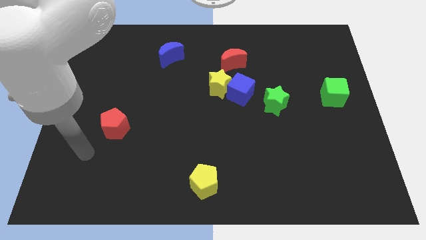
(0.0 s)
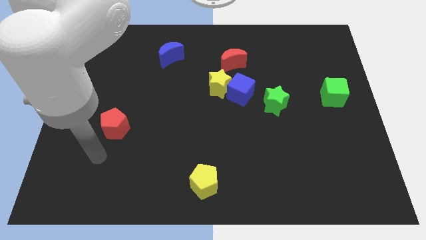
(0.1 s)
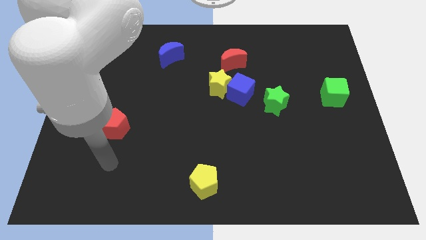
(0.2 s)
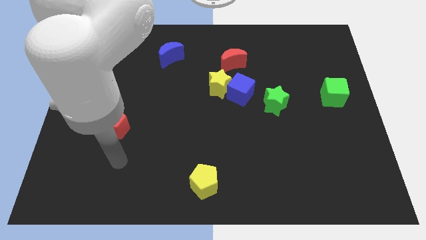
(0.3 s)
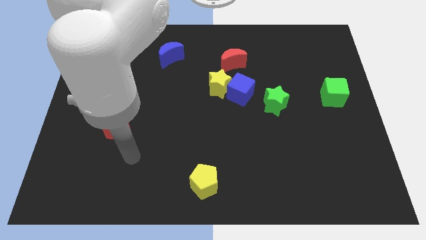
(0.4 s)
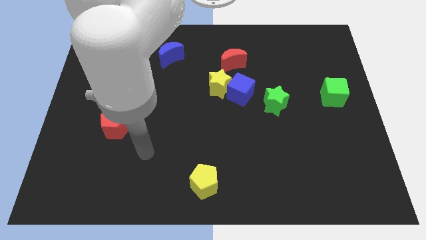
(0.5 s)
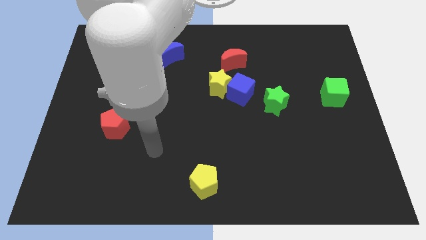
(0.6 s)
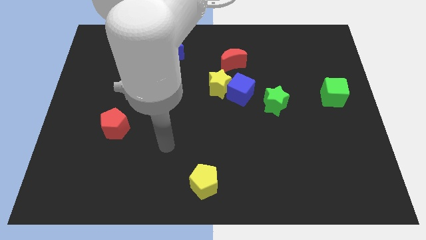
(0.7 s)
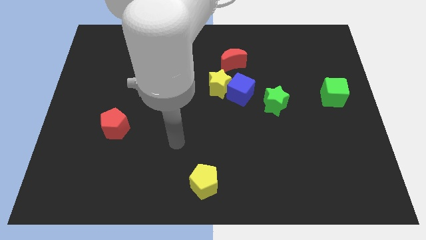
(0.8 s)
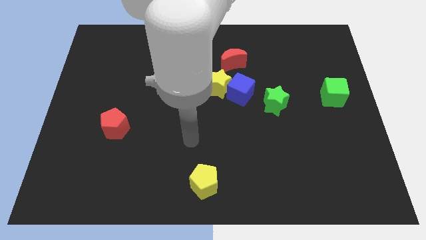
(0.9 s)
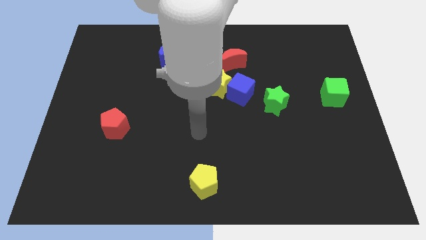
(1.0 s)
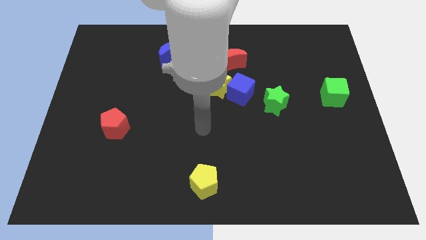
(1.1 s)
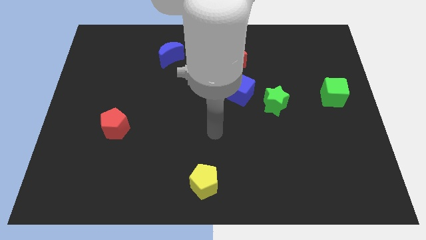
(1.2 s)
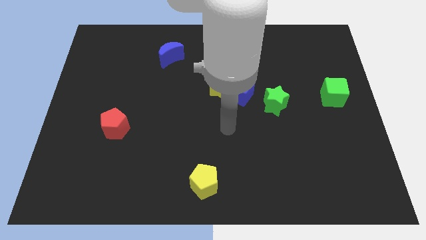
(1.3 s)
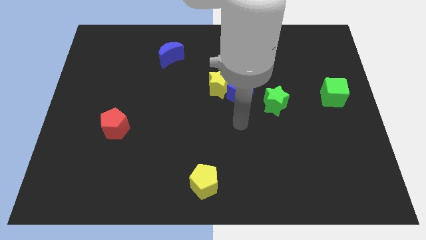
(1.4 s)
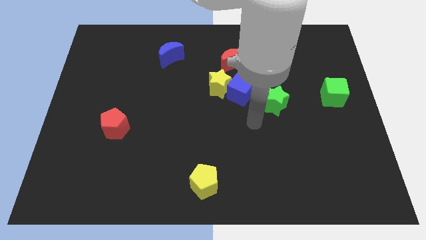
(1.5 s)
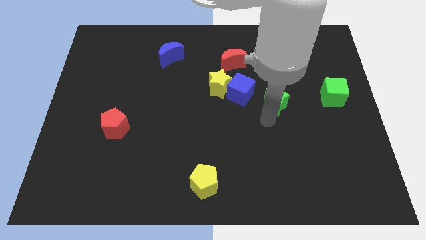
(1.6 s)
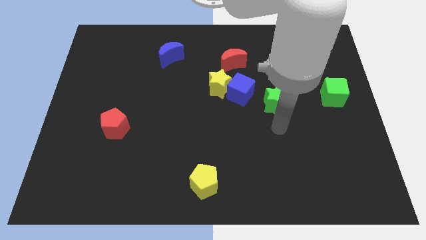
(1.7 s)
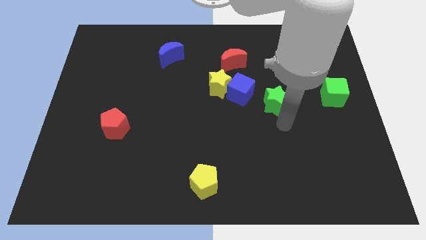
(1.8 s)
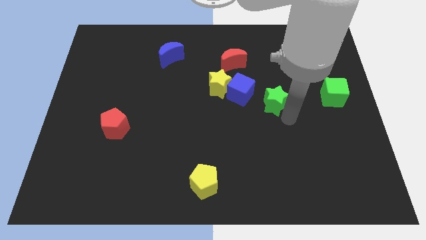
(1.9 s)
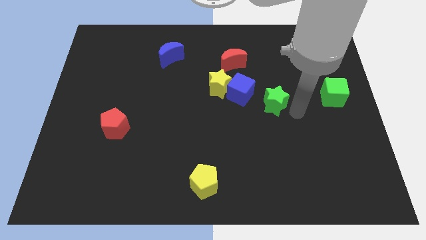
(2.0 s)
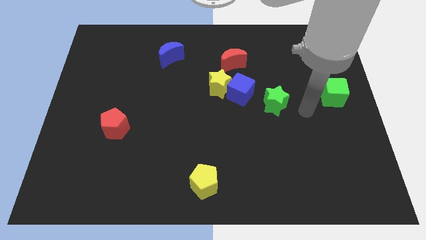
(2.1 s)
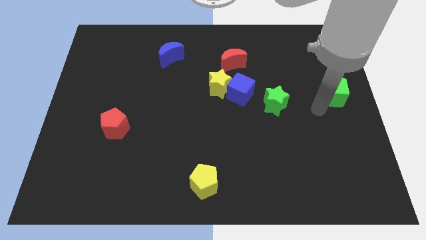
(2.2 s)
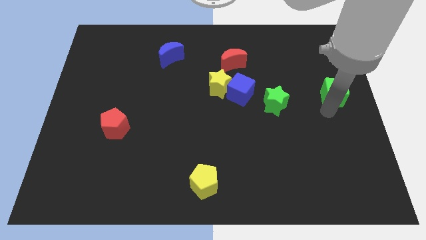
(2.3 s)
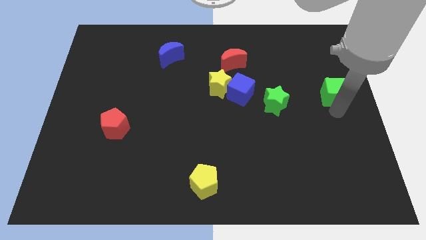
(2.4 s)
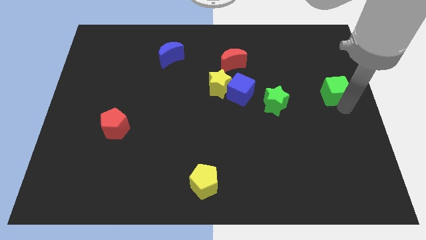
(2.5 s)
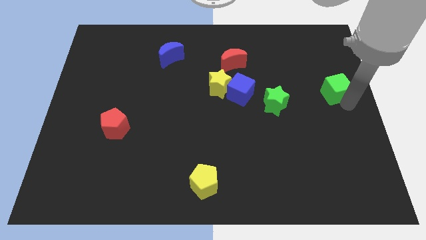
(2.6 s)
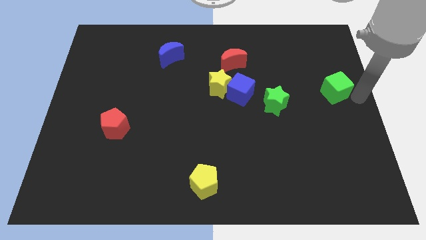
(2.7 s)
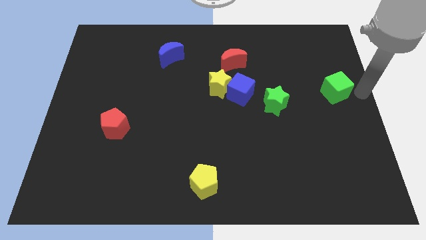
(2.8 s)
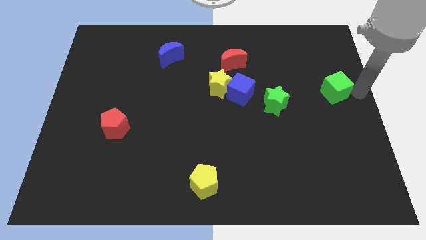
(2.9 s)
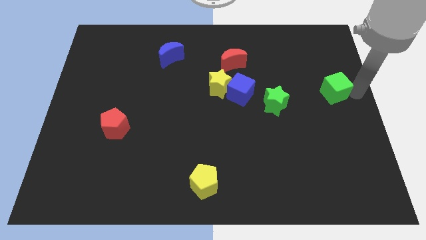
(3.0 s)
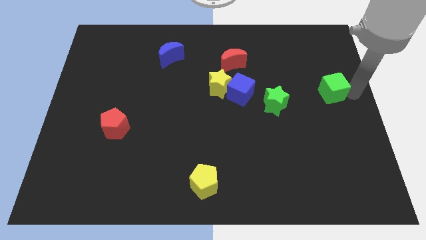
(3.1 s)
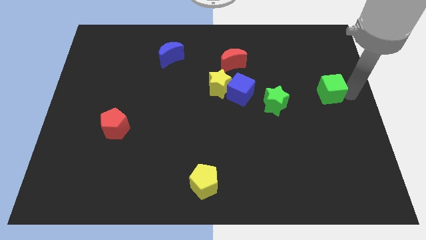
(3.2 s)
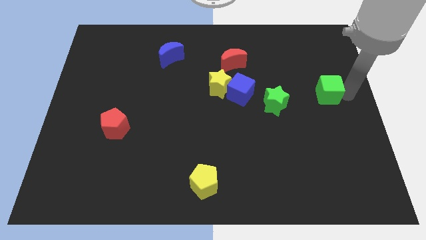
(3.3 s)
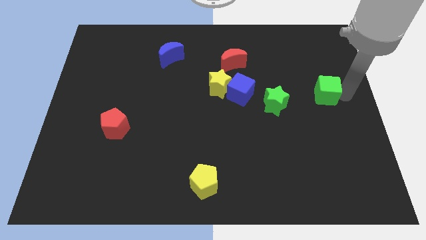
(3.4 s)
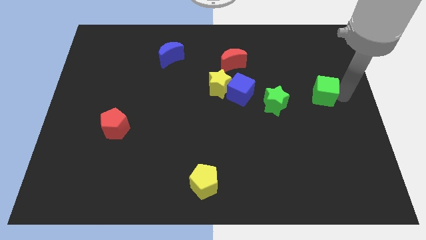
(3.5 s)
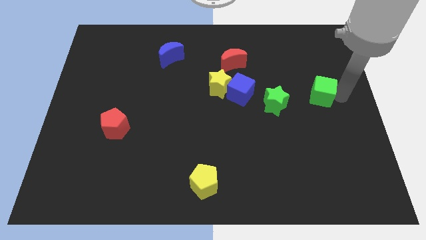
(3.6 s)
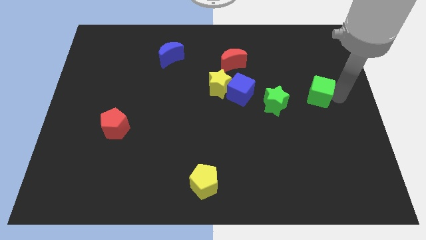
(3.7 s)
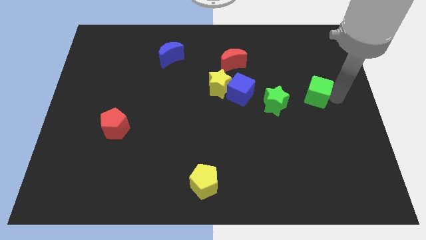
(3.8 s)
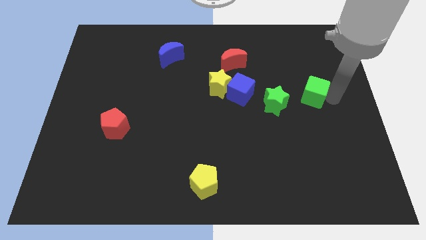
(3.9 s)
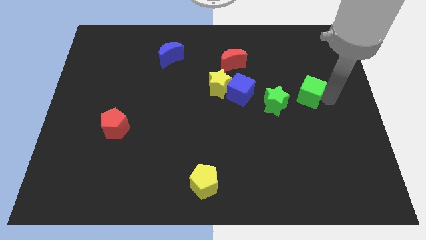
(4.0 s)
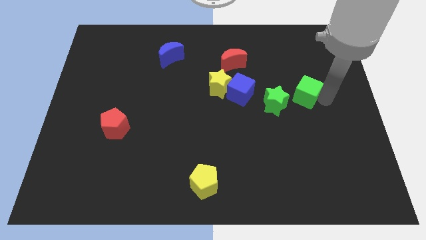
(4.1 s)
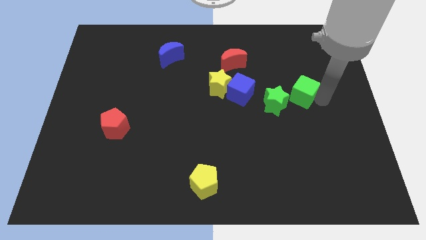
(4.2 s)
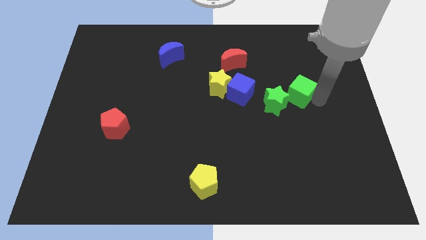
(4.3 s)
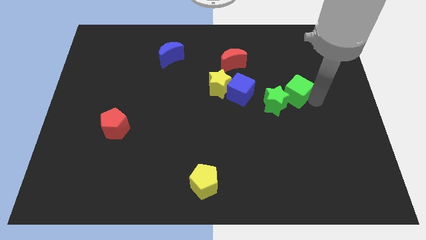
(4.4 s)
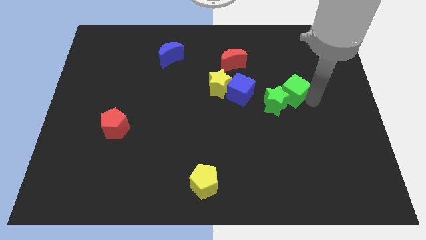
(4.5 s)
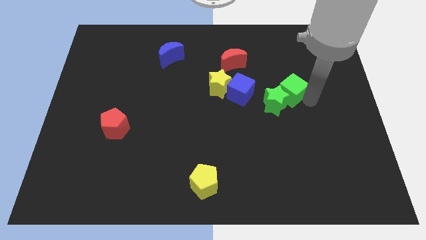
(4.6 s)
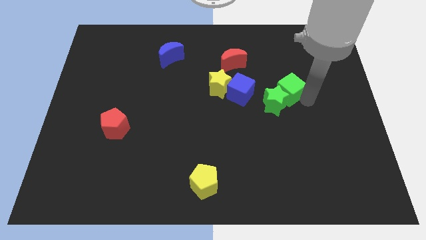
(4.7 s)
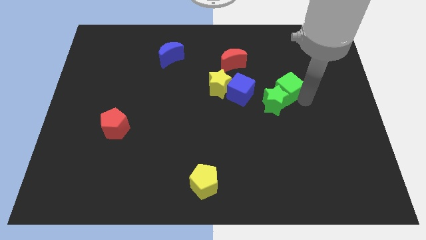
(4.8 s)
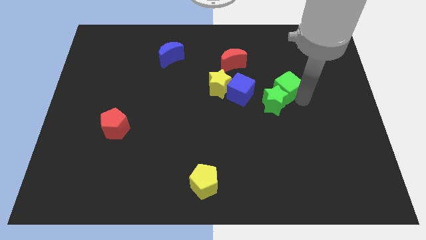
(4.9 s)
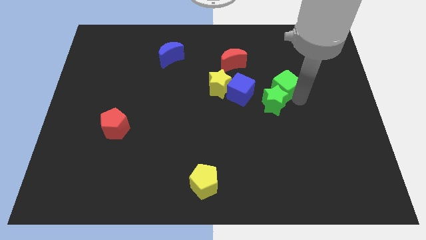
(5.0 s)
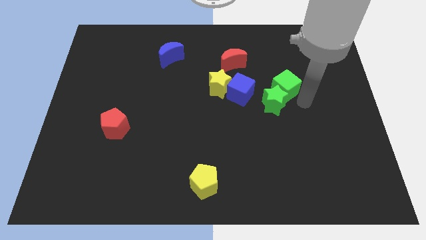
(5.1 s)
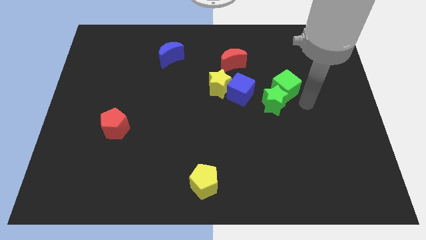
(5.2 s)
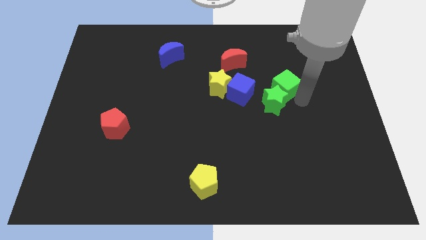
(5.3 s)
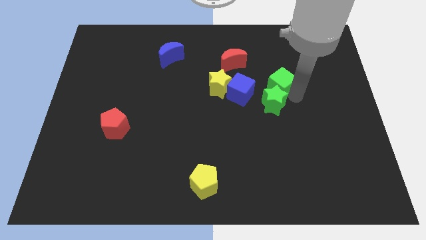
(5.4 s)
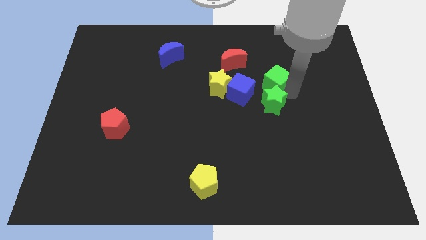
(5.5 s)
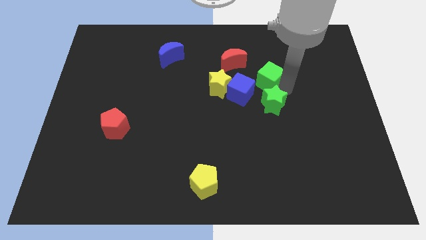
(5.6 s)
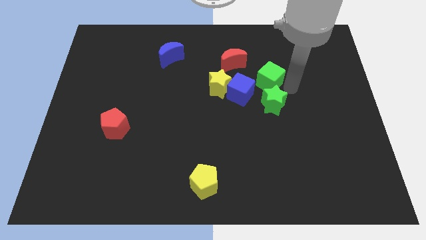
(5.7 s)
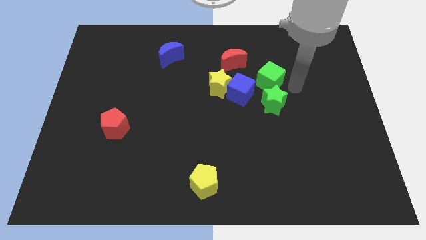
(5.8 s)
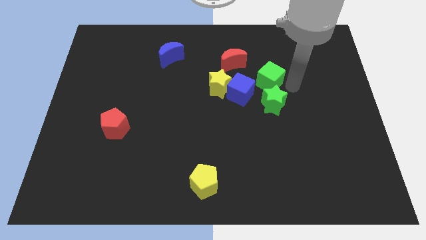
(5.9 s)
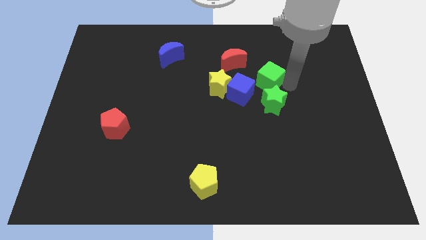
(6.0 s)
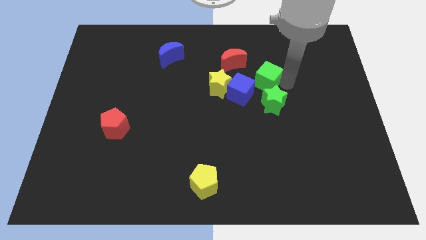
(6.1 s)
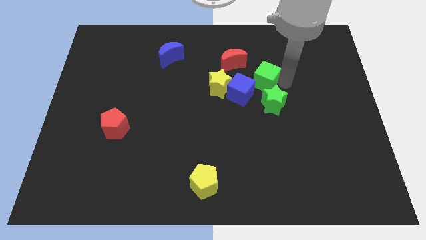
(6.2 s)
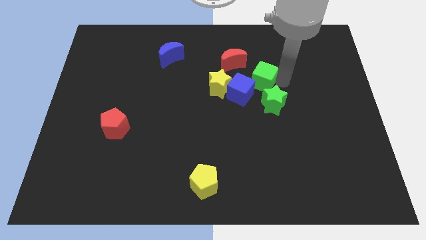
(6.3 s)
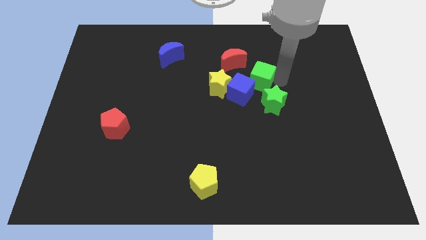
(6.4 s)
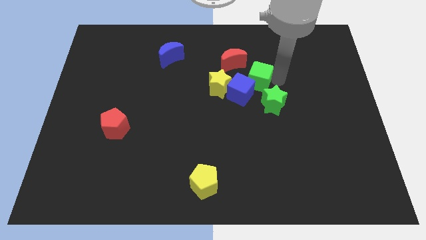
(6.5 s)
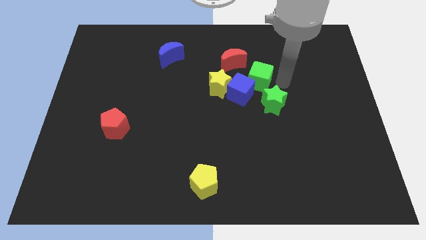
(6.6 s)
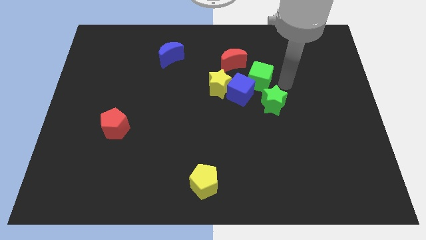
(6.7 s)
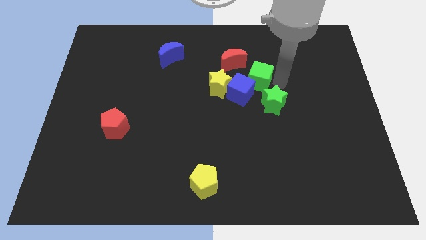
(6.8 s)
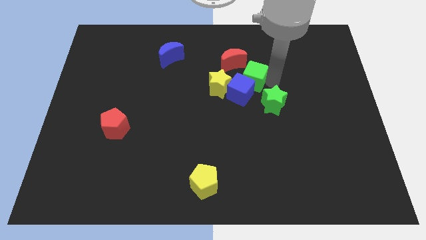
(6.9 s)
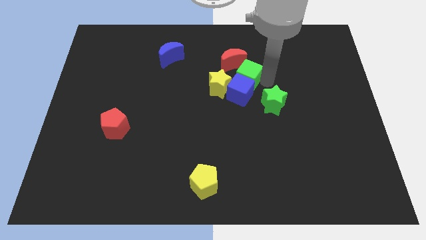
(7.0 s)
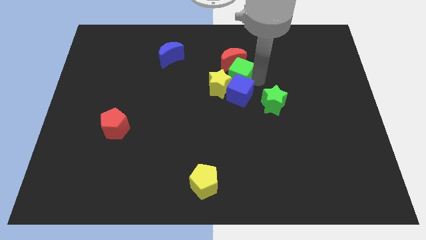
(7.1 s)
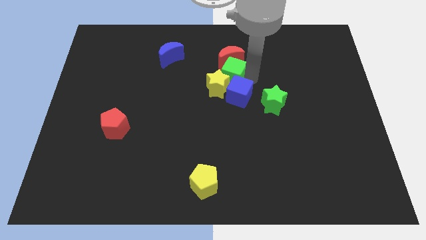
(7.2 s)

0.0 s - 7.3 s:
put the green cube to the bottom left of the red moon
